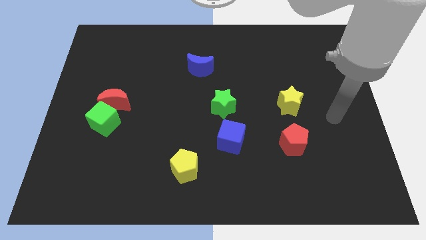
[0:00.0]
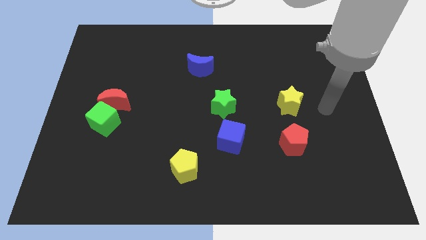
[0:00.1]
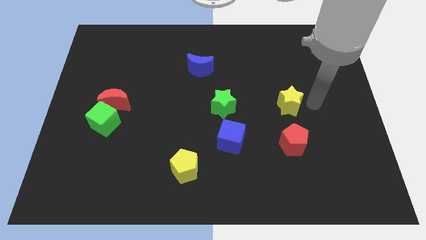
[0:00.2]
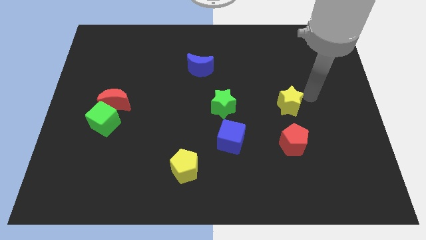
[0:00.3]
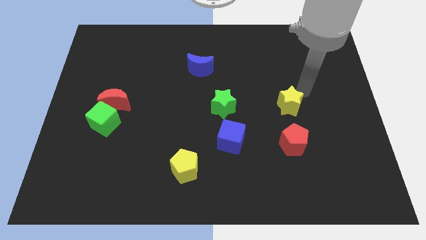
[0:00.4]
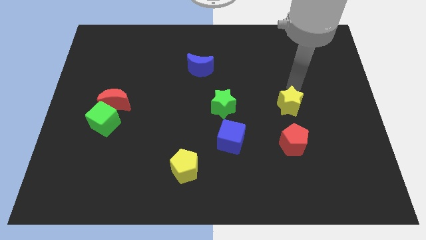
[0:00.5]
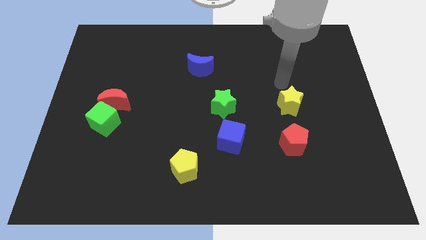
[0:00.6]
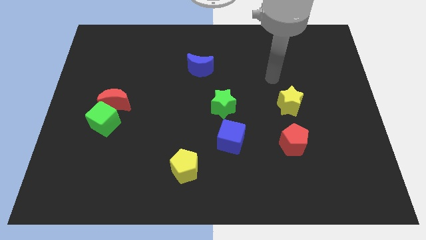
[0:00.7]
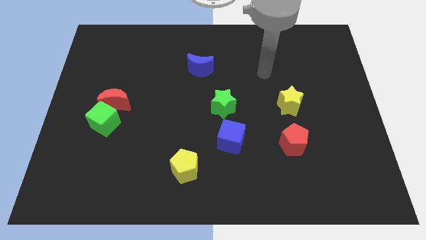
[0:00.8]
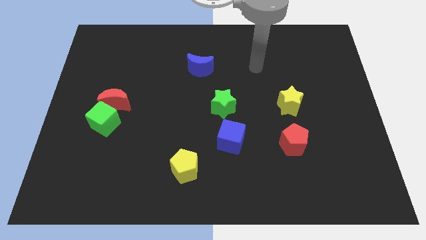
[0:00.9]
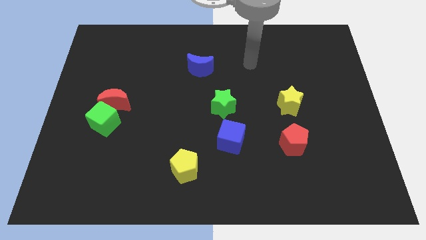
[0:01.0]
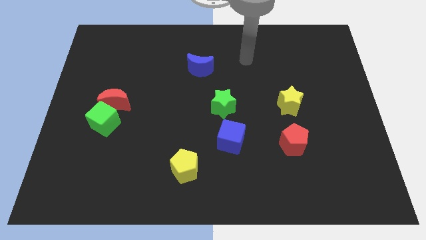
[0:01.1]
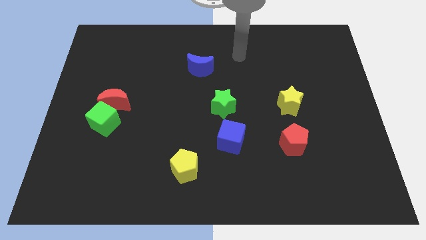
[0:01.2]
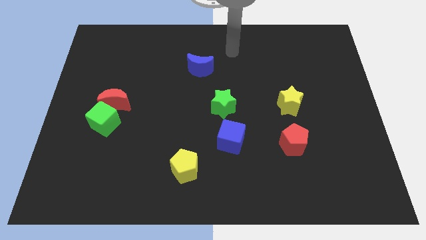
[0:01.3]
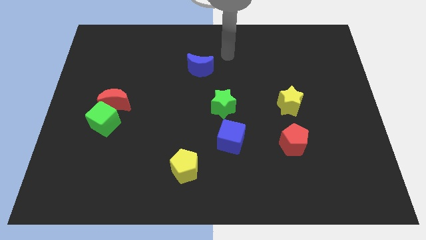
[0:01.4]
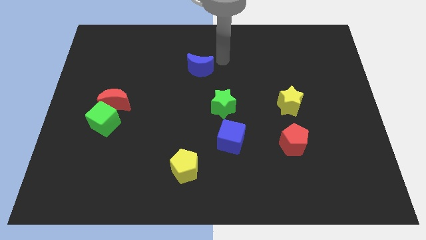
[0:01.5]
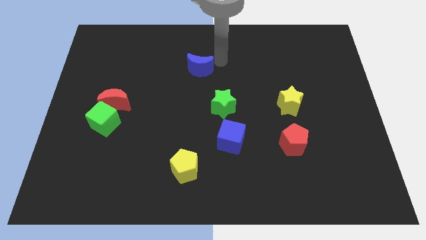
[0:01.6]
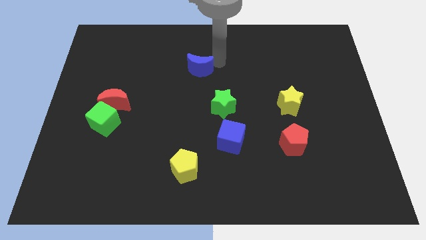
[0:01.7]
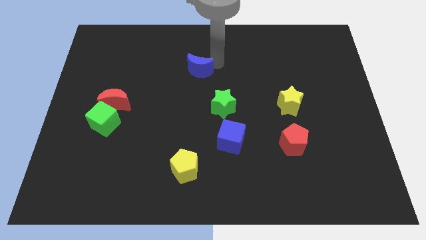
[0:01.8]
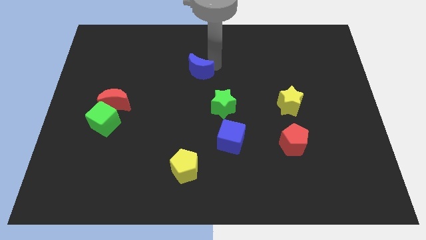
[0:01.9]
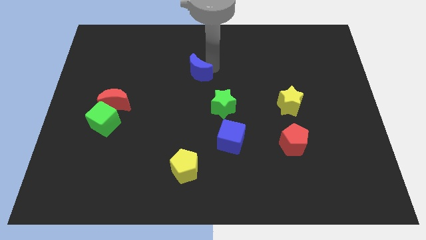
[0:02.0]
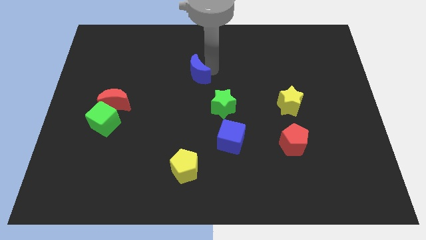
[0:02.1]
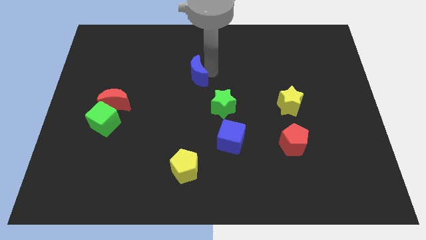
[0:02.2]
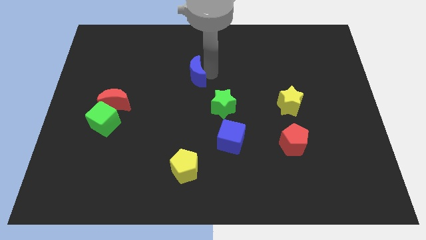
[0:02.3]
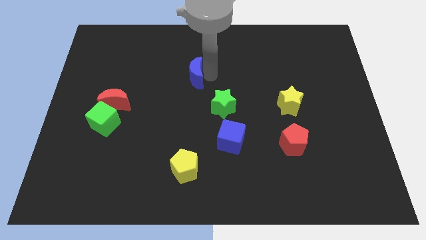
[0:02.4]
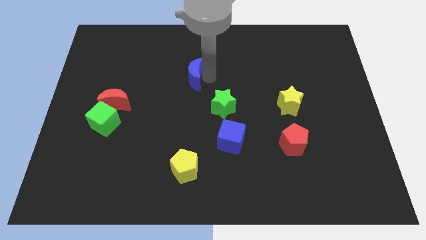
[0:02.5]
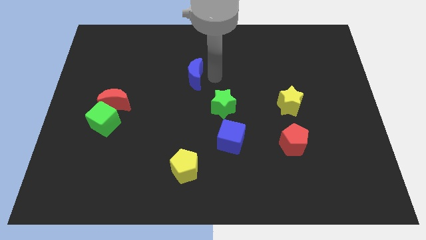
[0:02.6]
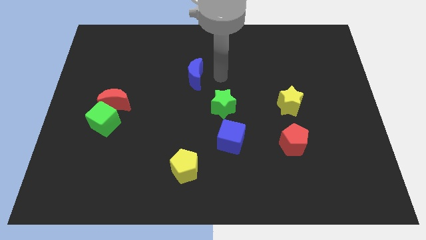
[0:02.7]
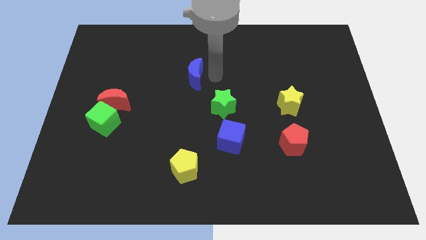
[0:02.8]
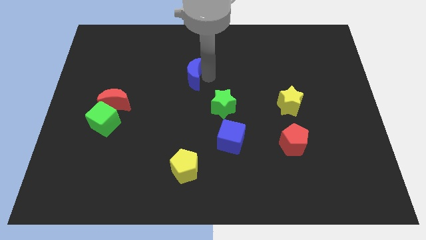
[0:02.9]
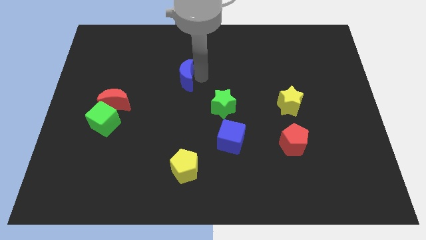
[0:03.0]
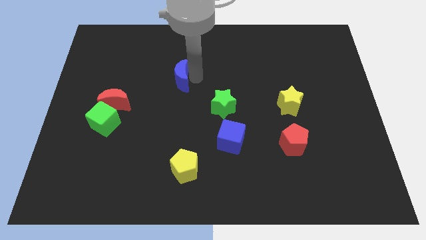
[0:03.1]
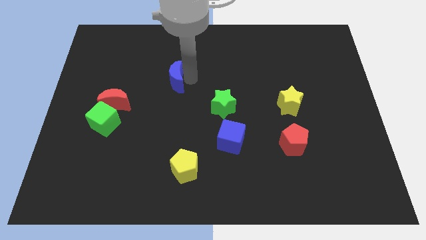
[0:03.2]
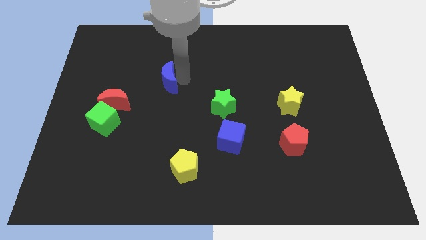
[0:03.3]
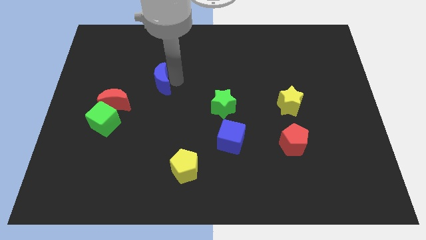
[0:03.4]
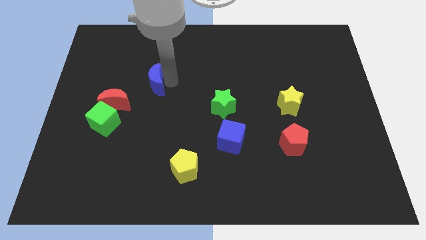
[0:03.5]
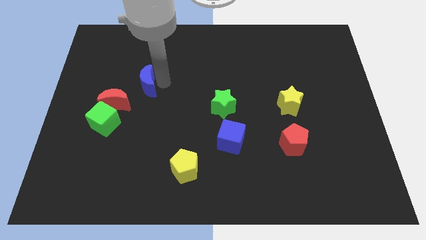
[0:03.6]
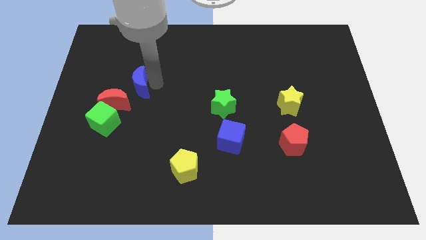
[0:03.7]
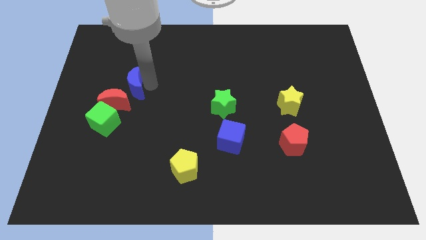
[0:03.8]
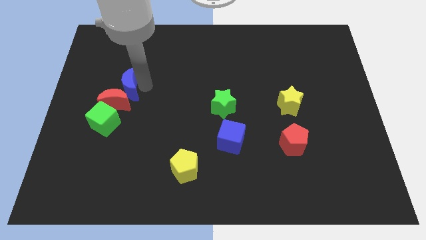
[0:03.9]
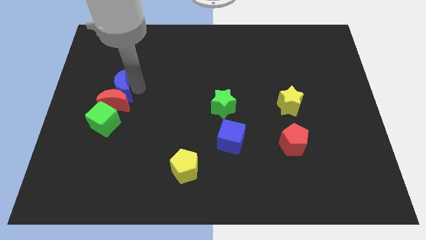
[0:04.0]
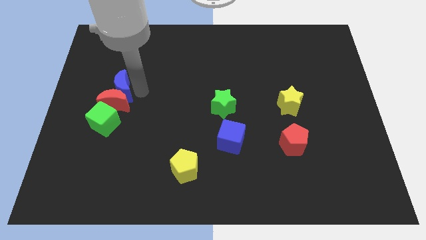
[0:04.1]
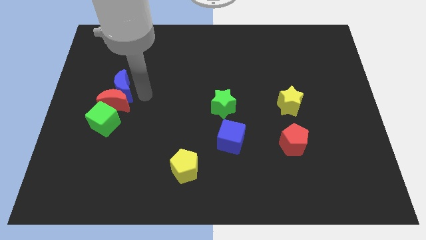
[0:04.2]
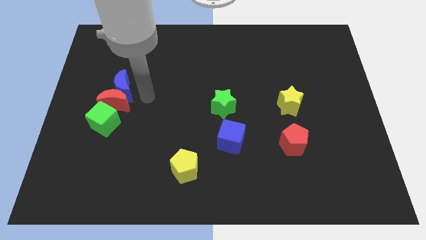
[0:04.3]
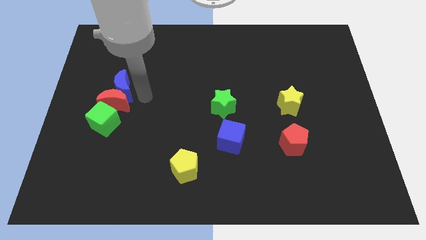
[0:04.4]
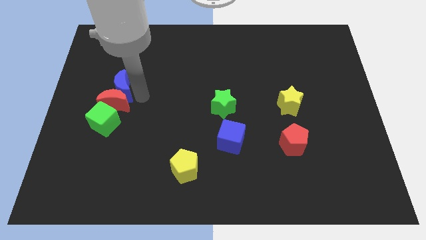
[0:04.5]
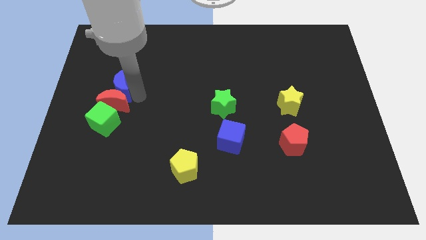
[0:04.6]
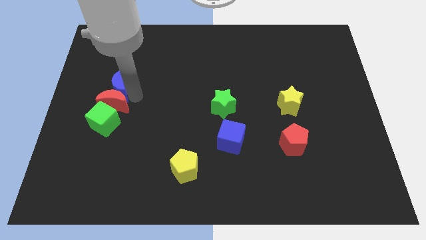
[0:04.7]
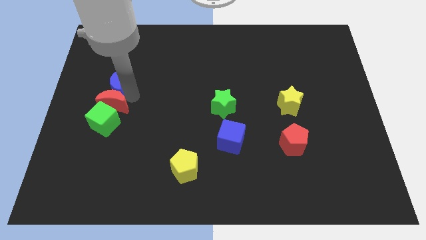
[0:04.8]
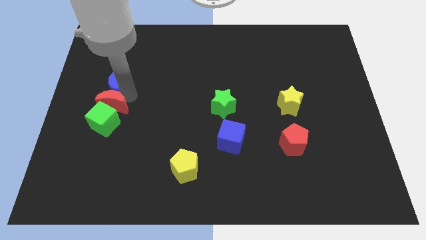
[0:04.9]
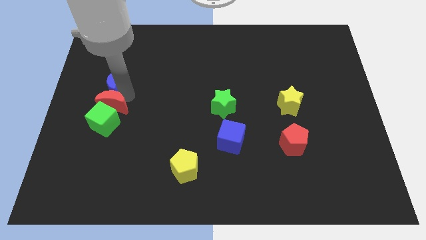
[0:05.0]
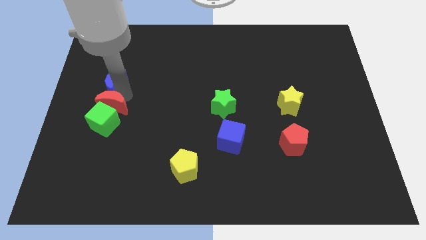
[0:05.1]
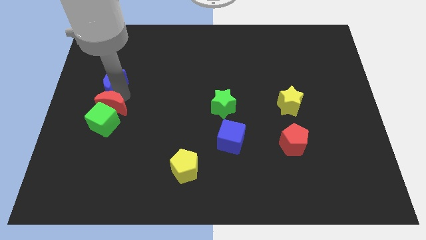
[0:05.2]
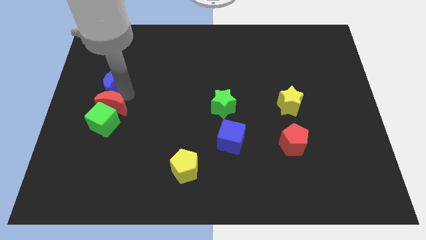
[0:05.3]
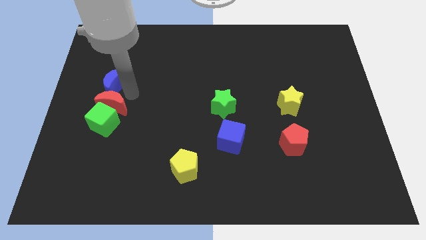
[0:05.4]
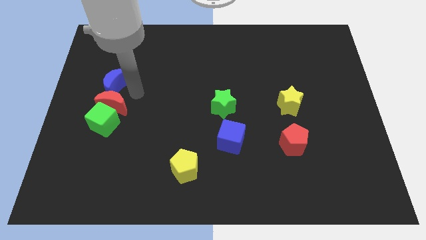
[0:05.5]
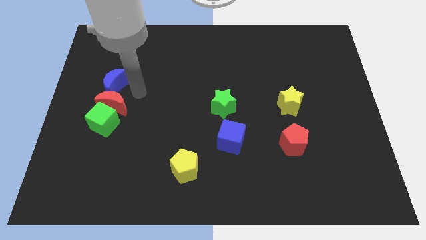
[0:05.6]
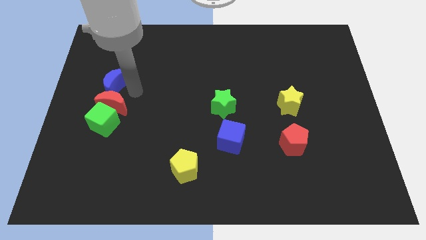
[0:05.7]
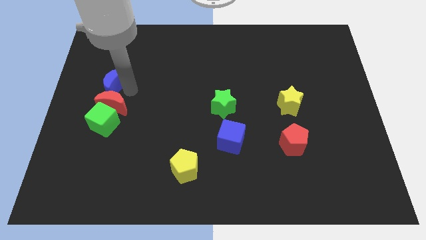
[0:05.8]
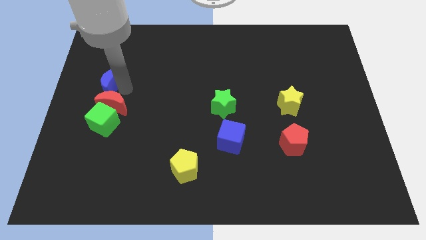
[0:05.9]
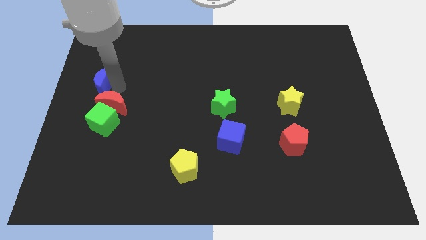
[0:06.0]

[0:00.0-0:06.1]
push the blue moon to the left side of the board

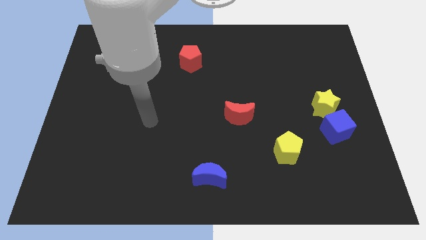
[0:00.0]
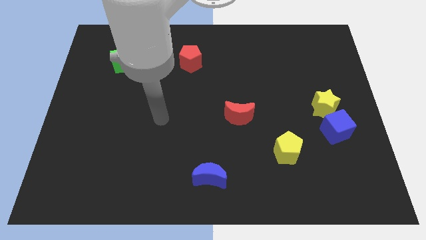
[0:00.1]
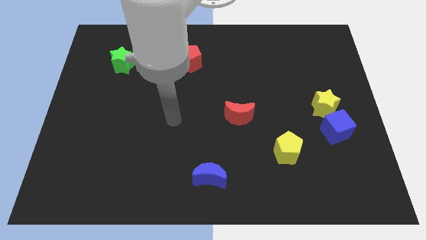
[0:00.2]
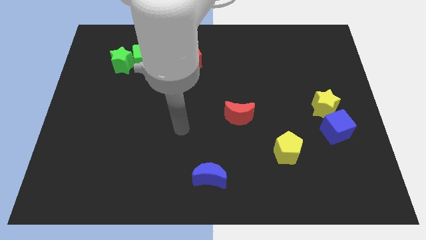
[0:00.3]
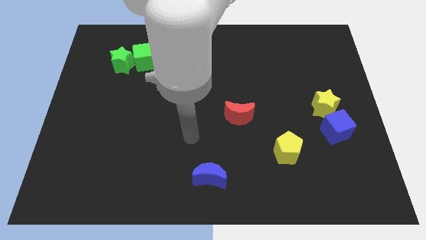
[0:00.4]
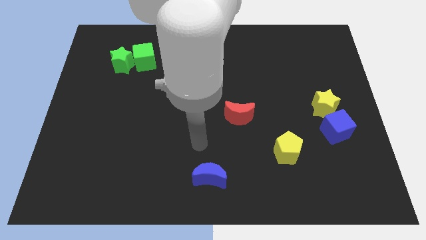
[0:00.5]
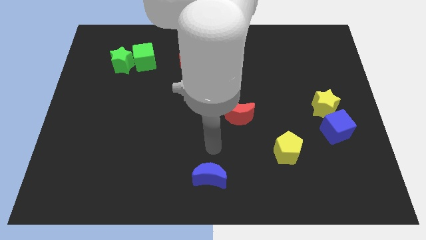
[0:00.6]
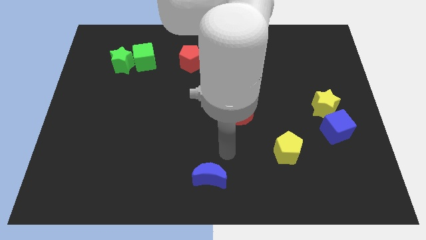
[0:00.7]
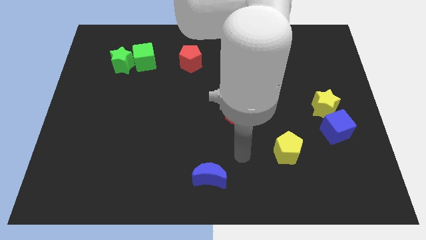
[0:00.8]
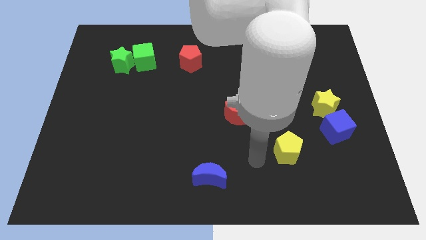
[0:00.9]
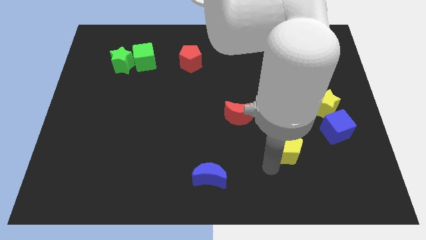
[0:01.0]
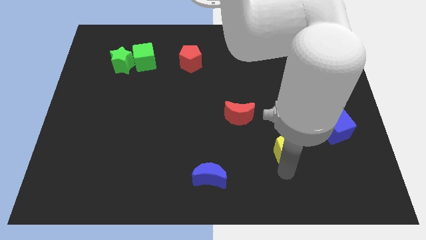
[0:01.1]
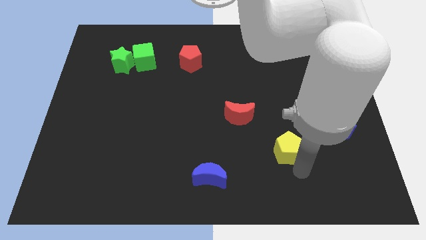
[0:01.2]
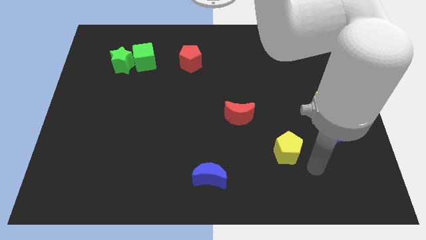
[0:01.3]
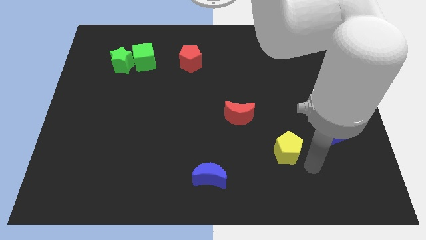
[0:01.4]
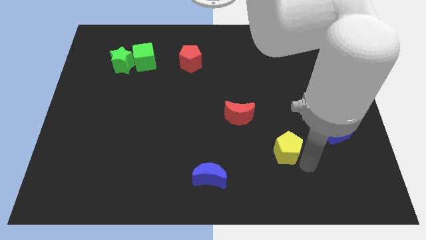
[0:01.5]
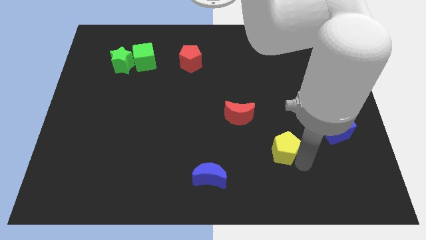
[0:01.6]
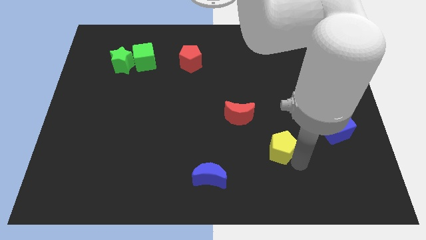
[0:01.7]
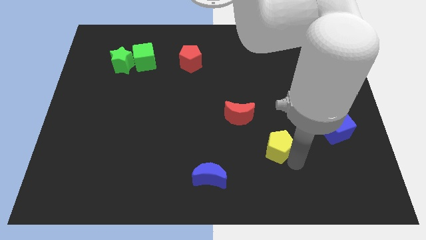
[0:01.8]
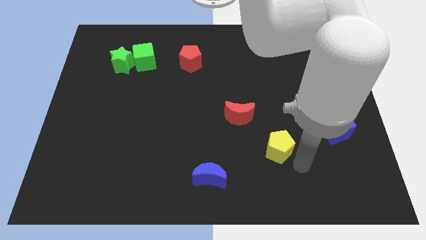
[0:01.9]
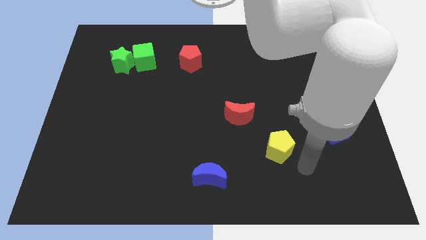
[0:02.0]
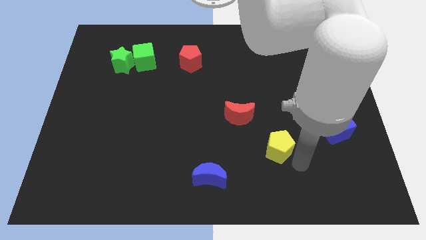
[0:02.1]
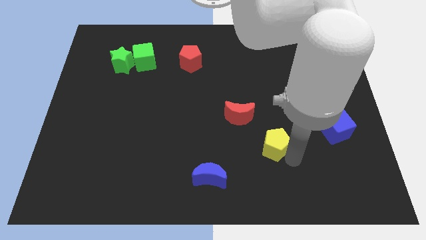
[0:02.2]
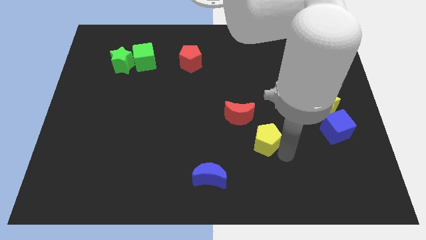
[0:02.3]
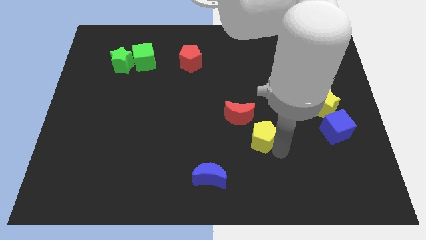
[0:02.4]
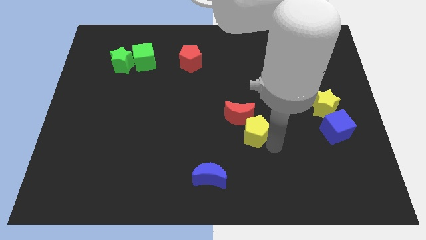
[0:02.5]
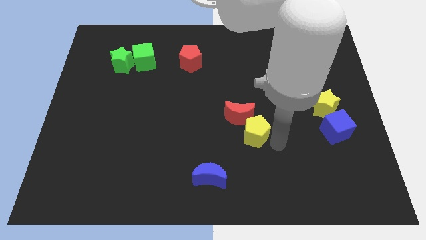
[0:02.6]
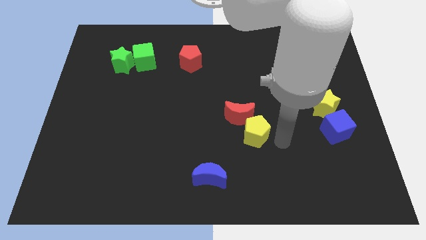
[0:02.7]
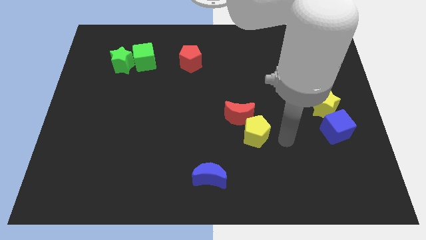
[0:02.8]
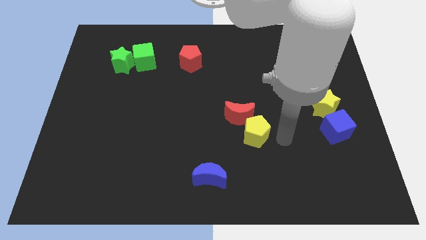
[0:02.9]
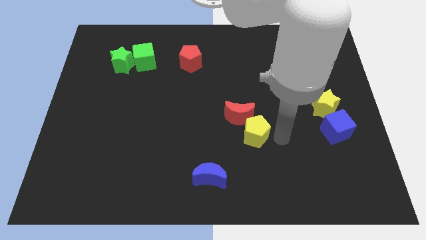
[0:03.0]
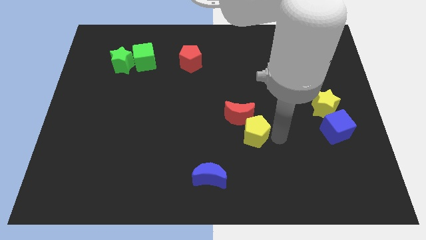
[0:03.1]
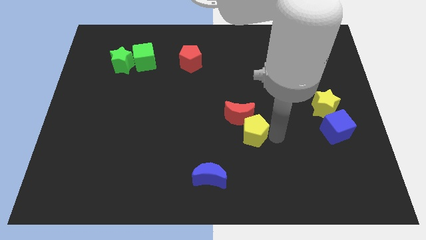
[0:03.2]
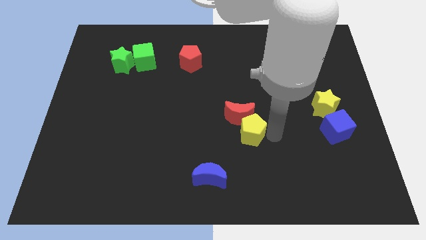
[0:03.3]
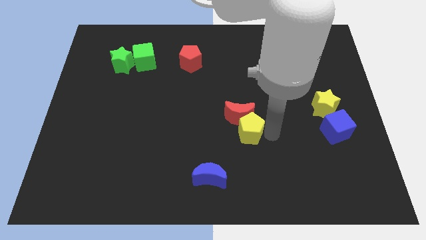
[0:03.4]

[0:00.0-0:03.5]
push the yellow pentagon to the middle of the board
